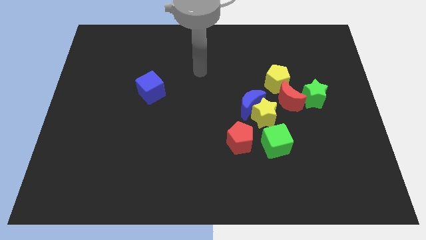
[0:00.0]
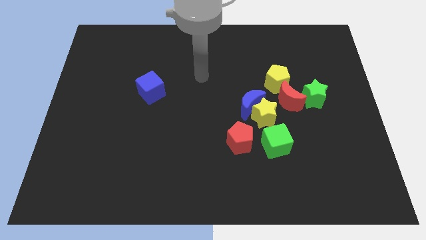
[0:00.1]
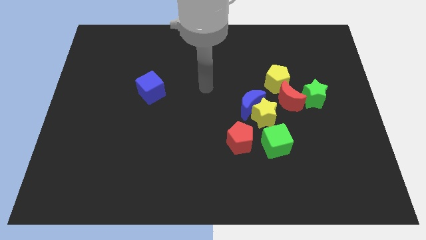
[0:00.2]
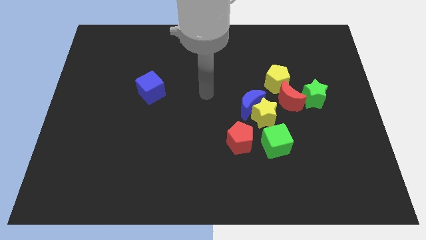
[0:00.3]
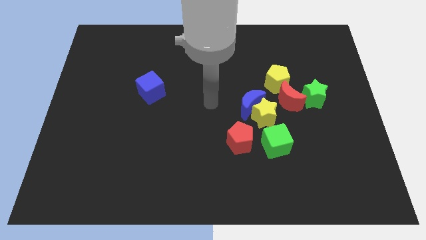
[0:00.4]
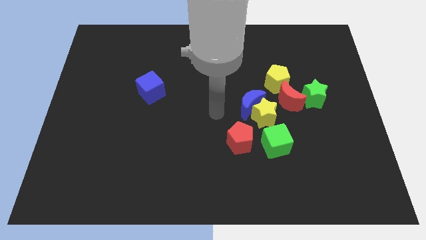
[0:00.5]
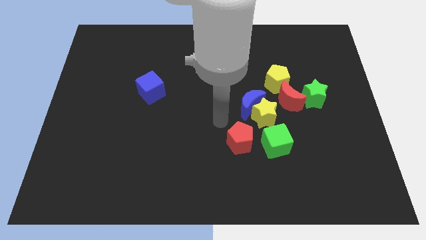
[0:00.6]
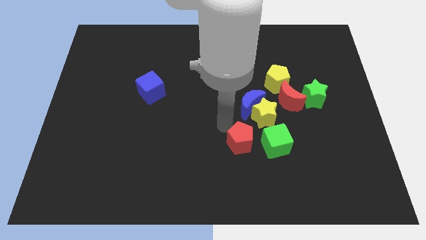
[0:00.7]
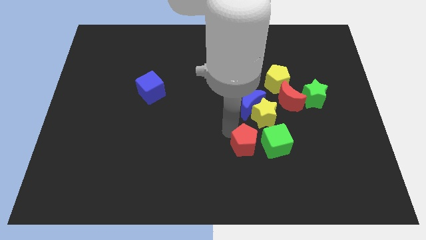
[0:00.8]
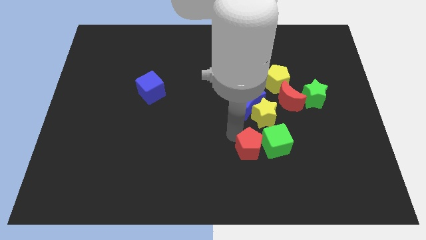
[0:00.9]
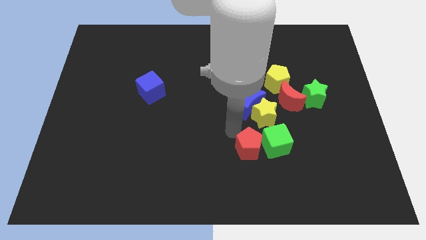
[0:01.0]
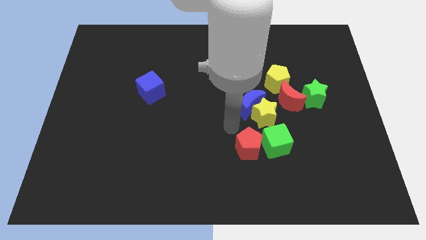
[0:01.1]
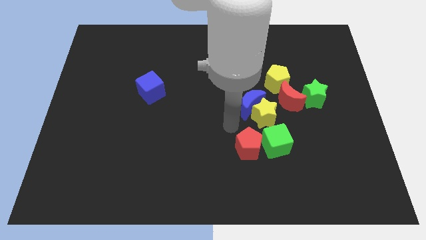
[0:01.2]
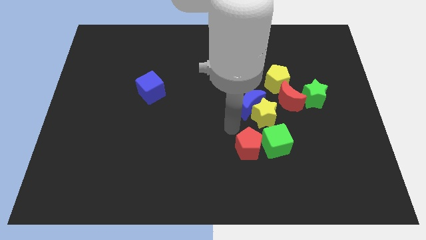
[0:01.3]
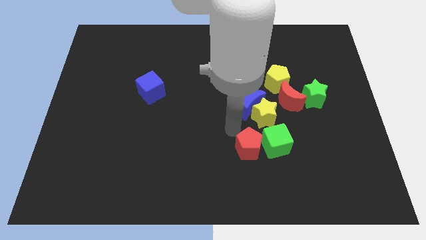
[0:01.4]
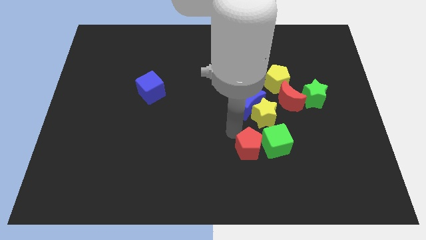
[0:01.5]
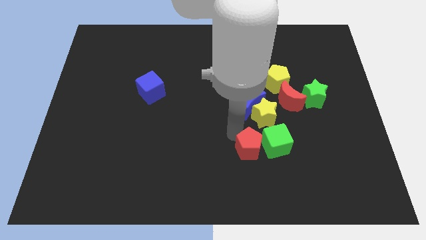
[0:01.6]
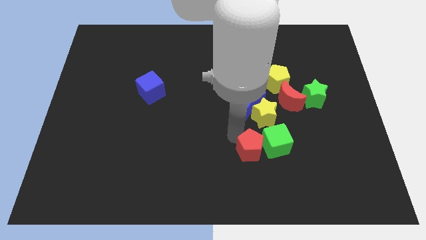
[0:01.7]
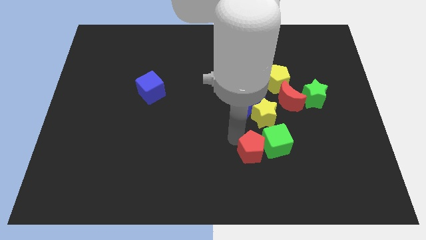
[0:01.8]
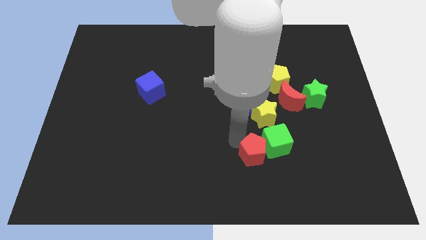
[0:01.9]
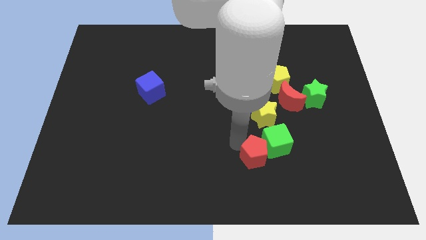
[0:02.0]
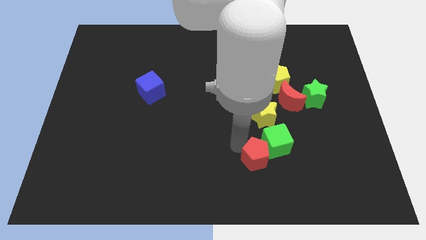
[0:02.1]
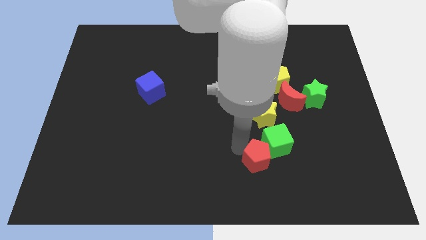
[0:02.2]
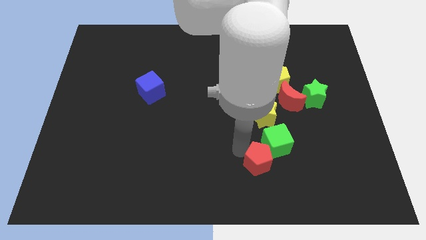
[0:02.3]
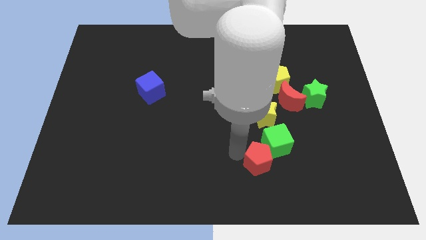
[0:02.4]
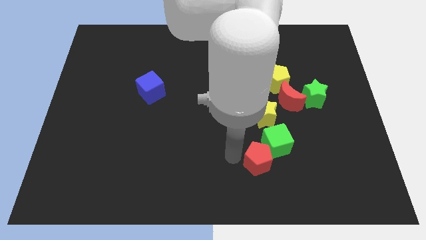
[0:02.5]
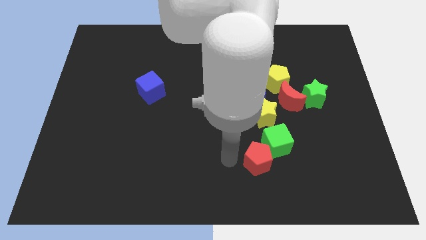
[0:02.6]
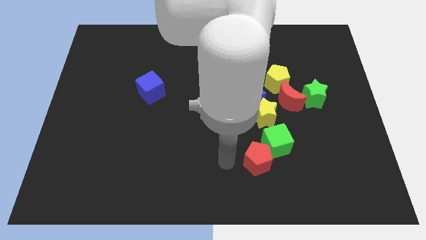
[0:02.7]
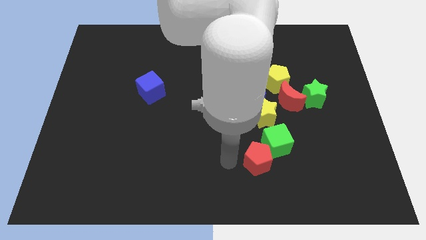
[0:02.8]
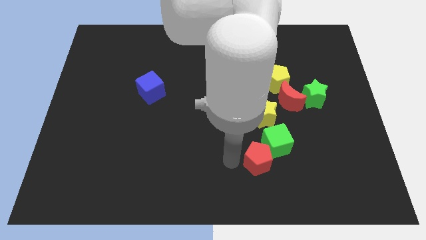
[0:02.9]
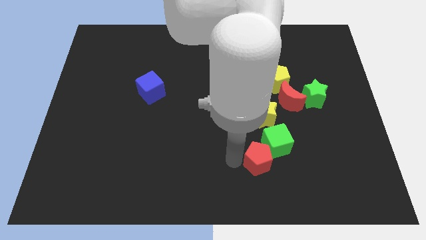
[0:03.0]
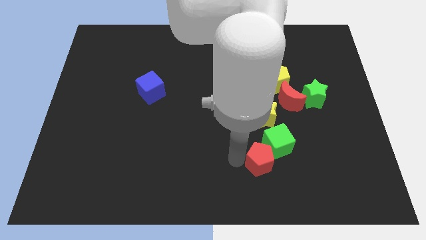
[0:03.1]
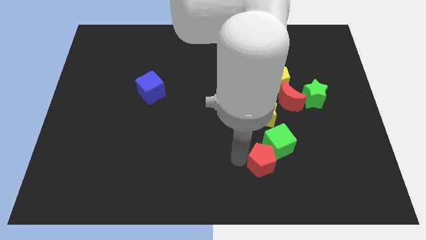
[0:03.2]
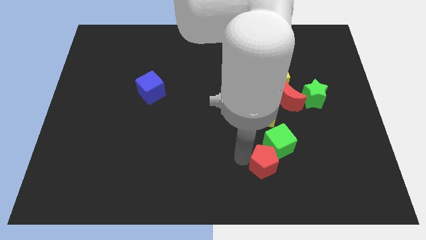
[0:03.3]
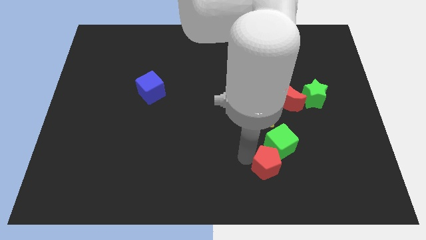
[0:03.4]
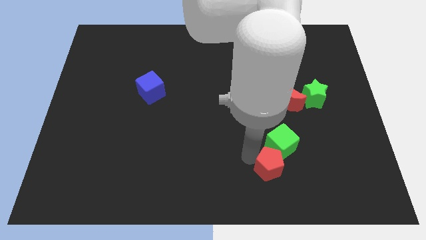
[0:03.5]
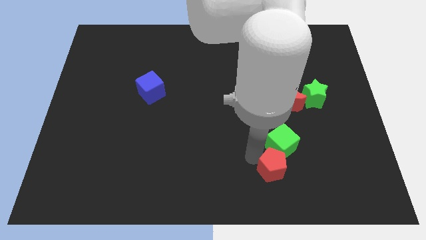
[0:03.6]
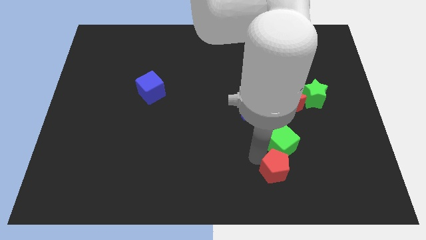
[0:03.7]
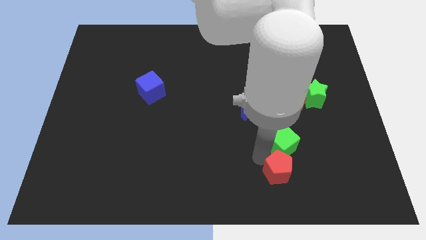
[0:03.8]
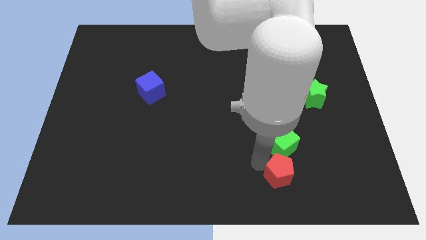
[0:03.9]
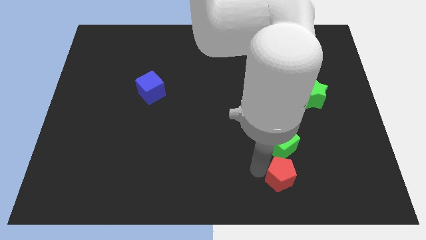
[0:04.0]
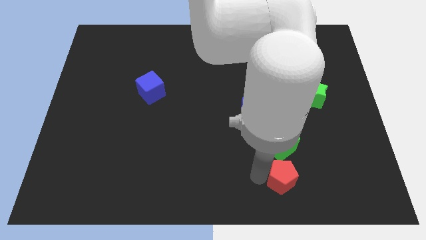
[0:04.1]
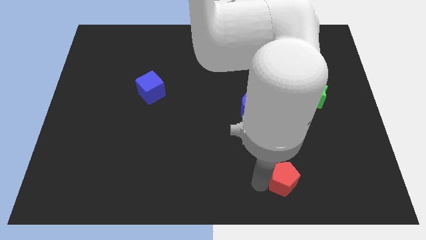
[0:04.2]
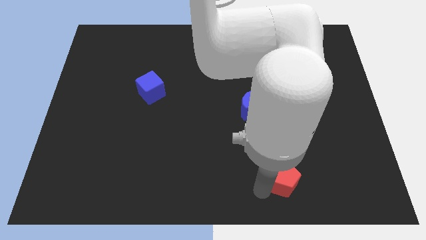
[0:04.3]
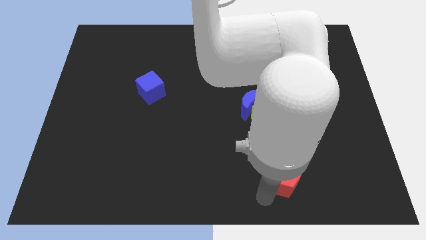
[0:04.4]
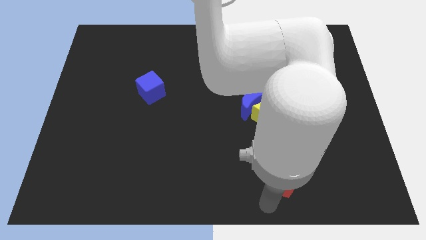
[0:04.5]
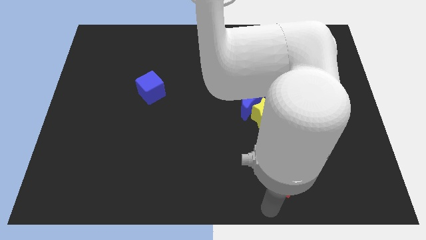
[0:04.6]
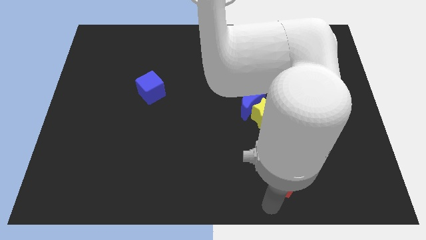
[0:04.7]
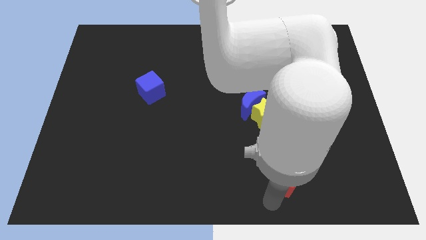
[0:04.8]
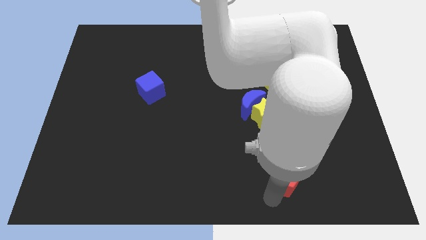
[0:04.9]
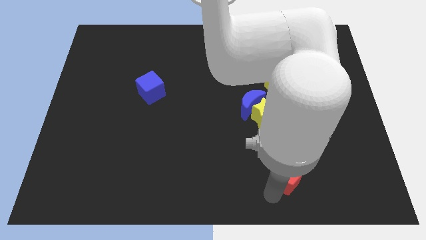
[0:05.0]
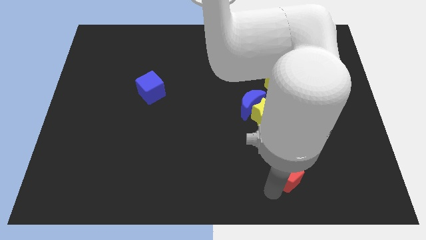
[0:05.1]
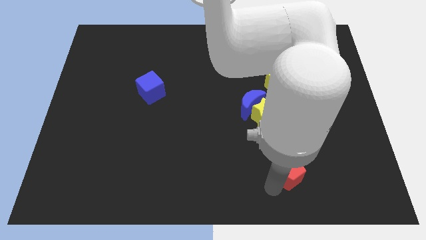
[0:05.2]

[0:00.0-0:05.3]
move the red pentagon right a bit

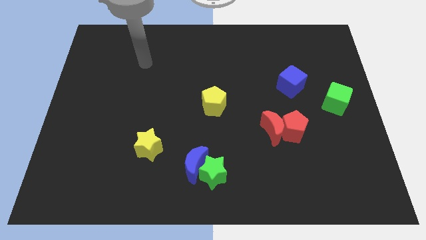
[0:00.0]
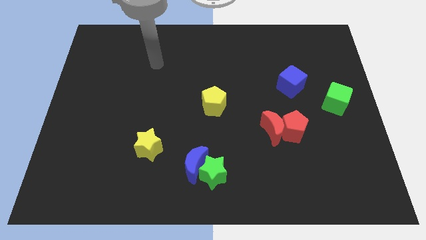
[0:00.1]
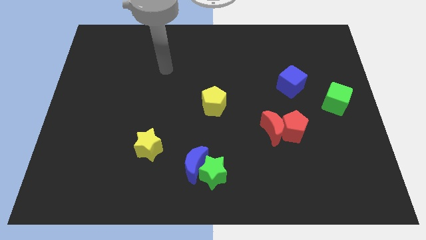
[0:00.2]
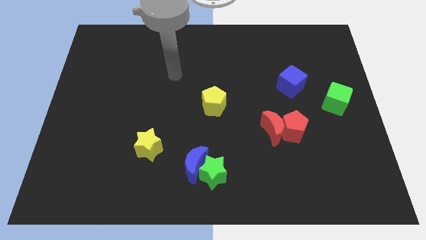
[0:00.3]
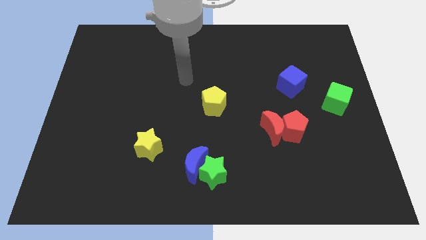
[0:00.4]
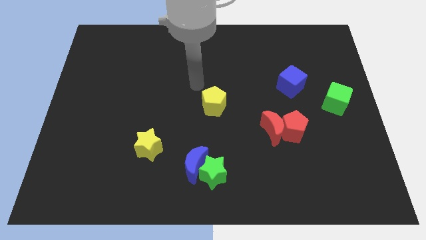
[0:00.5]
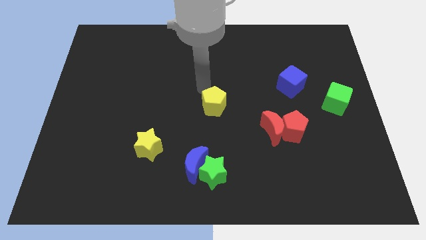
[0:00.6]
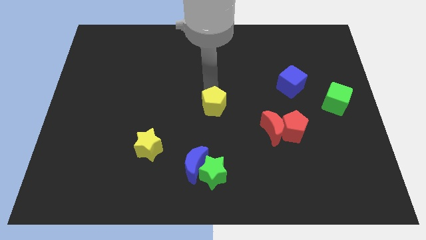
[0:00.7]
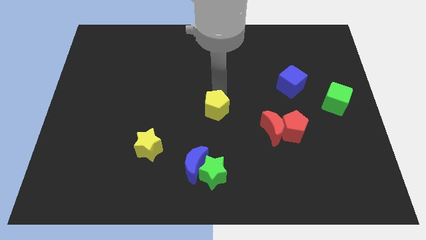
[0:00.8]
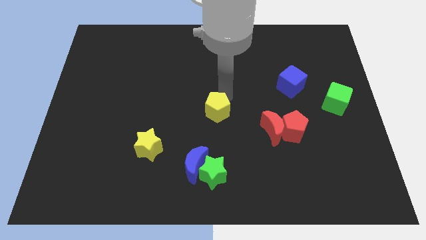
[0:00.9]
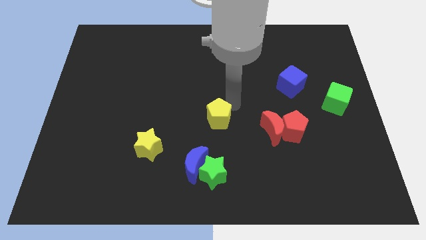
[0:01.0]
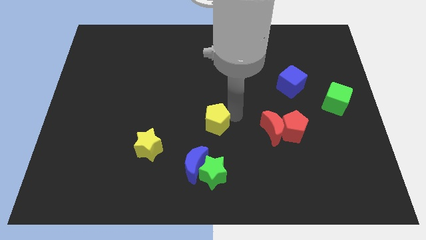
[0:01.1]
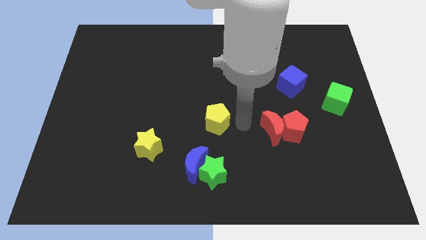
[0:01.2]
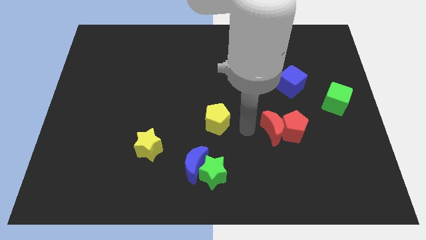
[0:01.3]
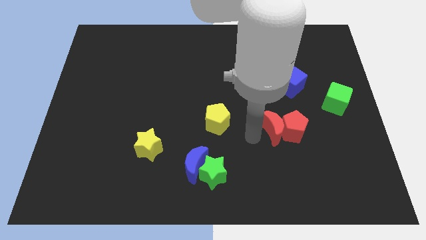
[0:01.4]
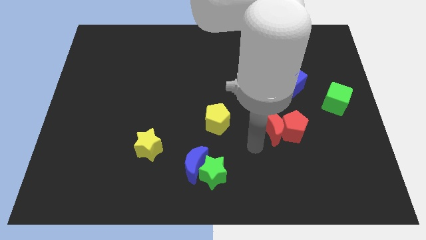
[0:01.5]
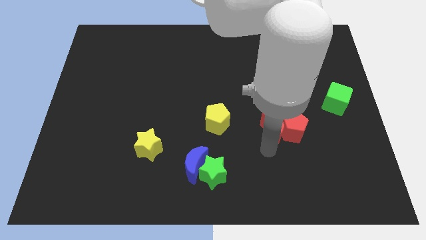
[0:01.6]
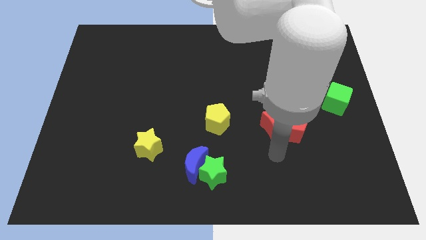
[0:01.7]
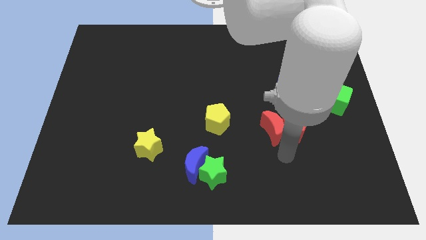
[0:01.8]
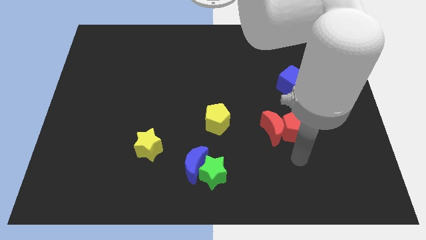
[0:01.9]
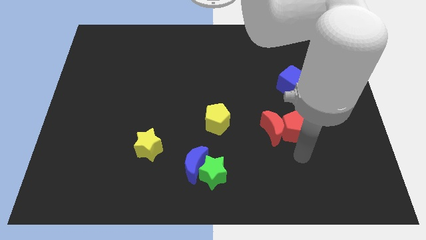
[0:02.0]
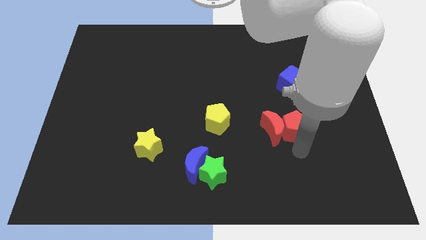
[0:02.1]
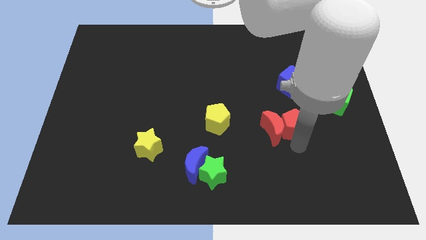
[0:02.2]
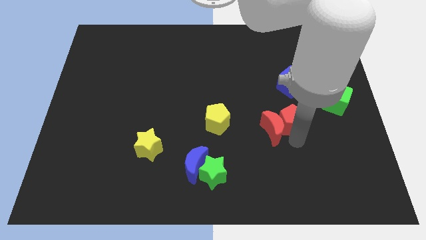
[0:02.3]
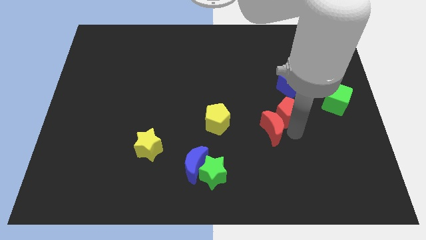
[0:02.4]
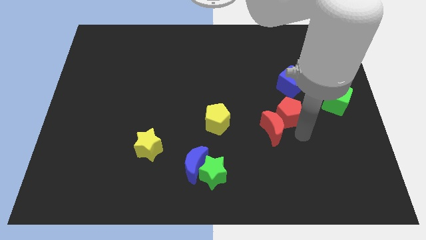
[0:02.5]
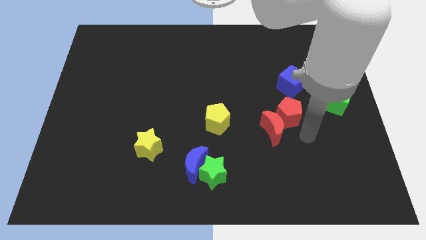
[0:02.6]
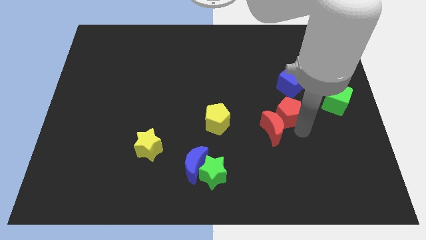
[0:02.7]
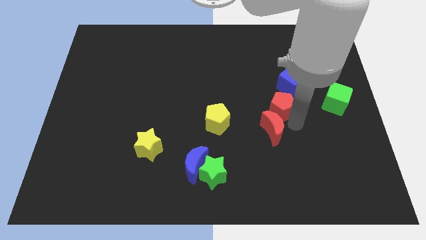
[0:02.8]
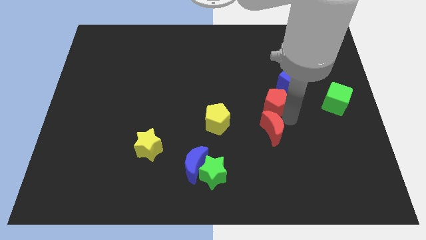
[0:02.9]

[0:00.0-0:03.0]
slightly slide the red pentagon up and then left
